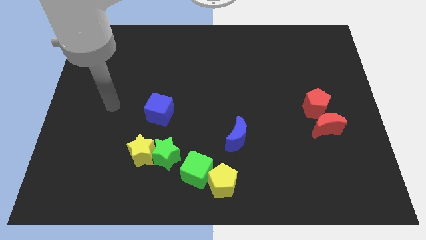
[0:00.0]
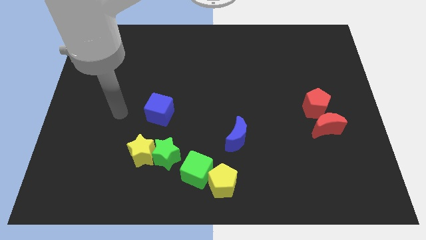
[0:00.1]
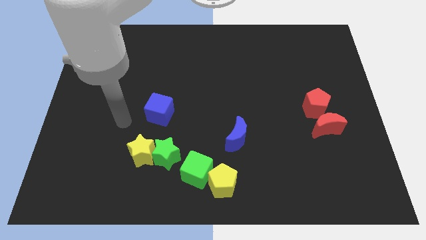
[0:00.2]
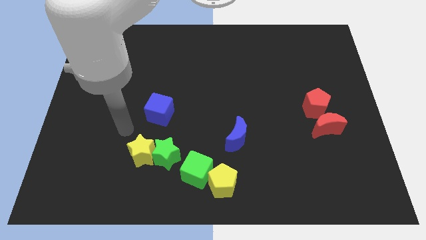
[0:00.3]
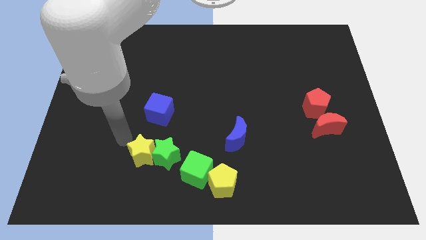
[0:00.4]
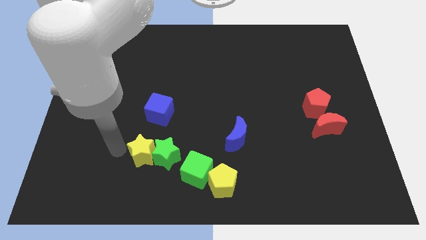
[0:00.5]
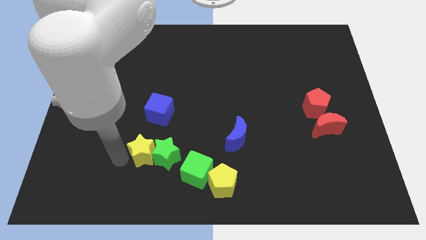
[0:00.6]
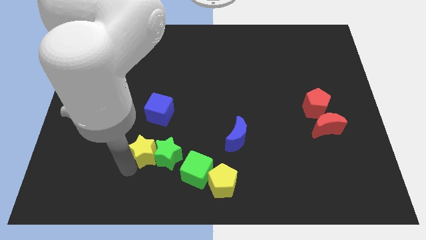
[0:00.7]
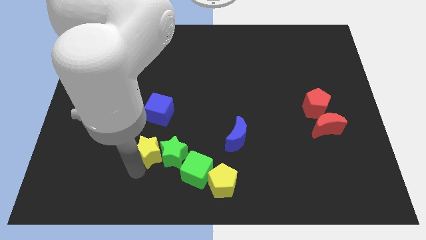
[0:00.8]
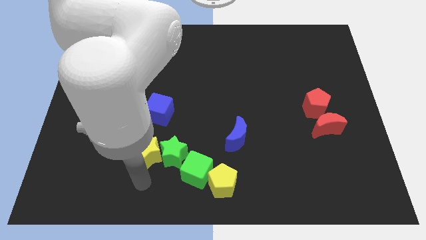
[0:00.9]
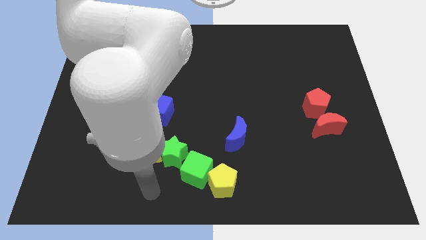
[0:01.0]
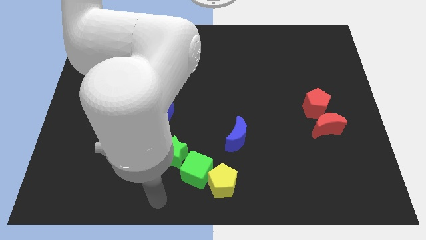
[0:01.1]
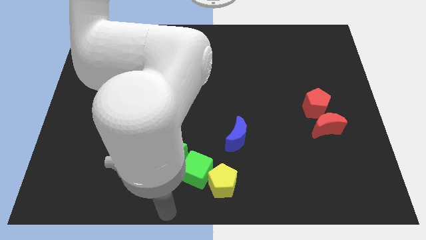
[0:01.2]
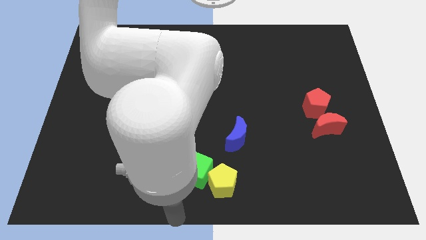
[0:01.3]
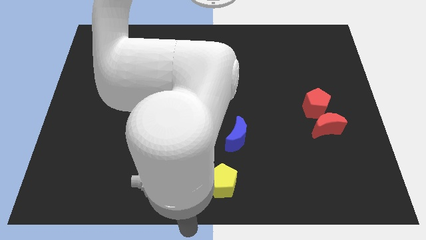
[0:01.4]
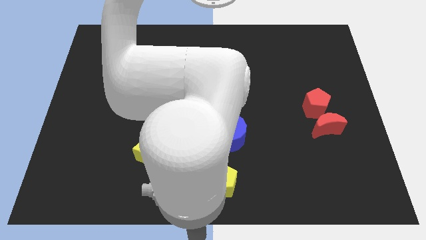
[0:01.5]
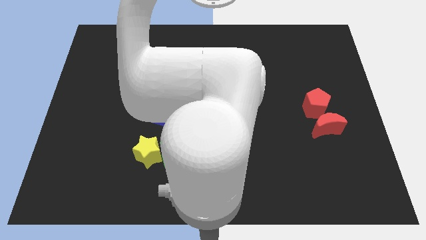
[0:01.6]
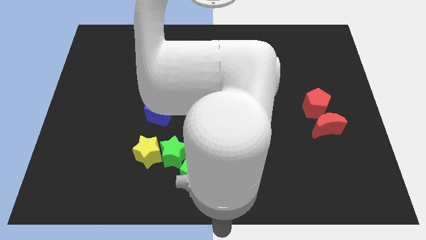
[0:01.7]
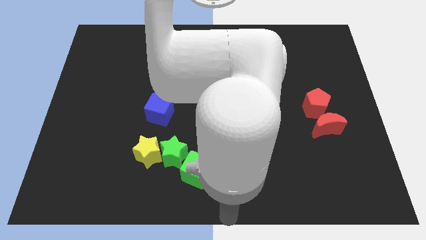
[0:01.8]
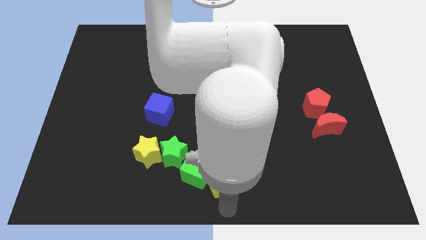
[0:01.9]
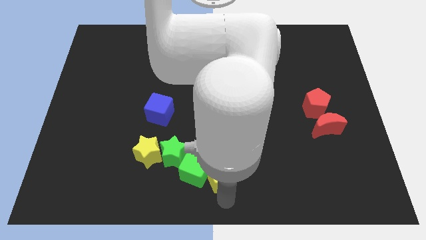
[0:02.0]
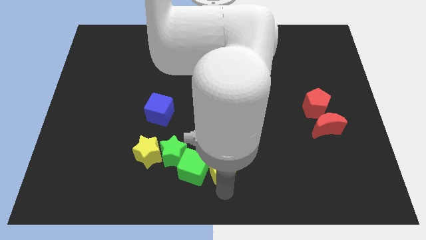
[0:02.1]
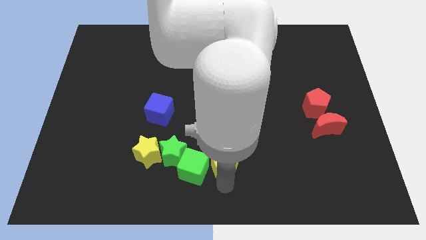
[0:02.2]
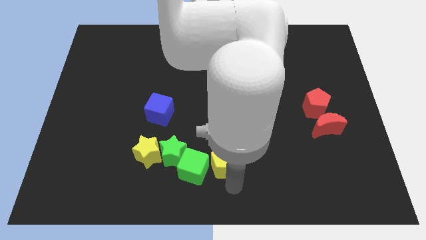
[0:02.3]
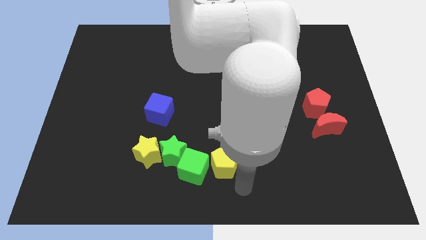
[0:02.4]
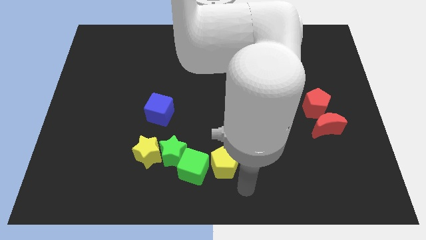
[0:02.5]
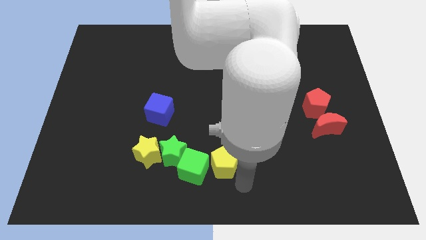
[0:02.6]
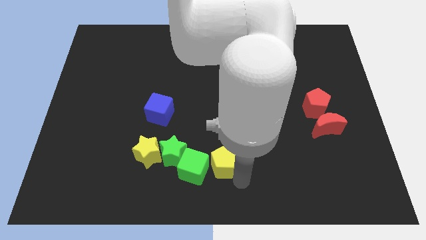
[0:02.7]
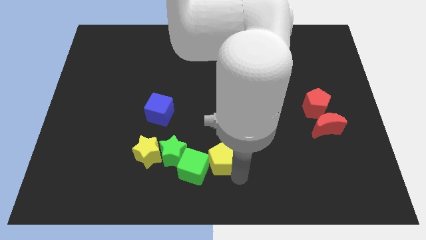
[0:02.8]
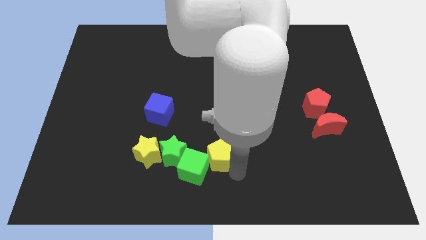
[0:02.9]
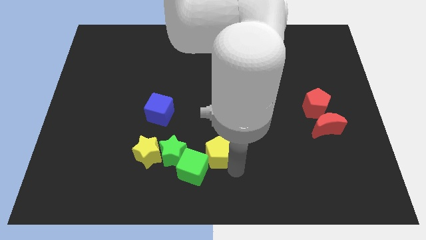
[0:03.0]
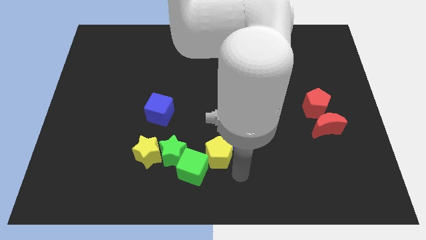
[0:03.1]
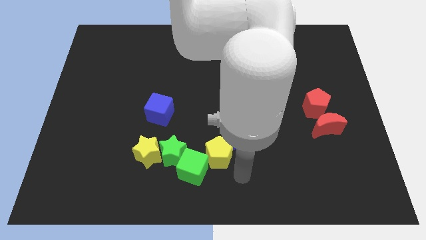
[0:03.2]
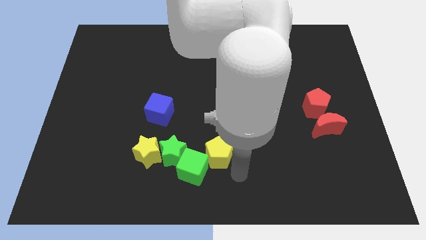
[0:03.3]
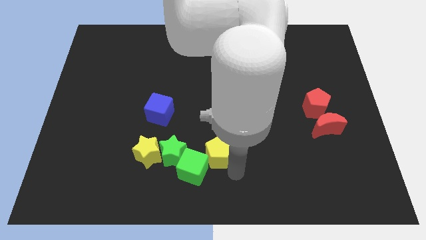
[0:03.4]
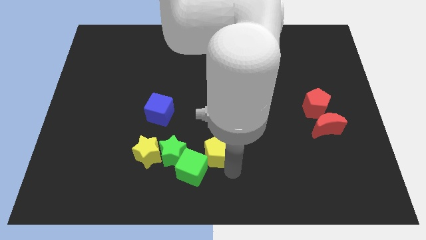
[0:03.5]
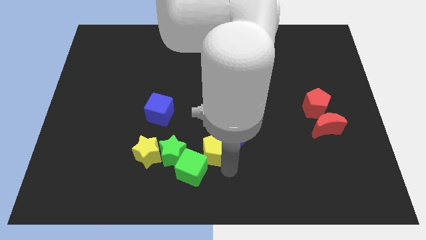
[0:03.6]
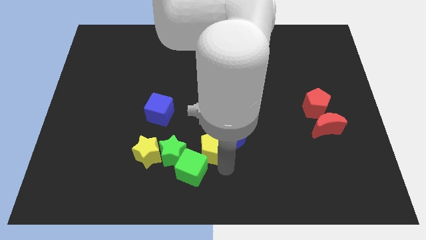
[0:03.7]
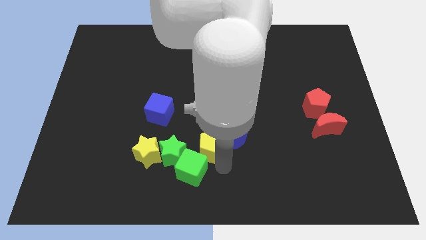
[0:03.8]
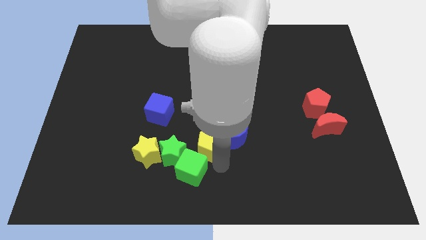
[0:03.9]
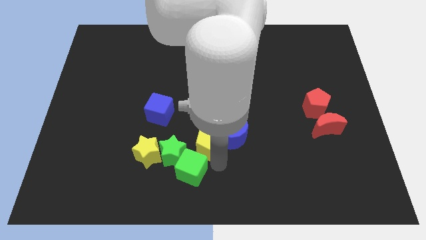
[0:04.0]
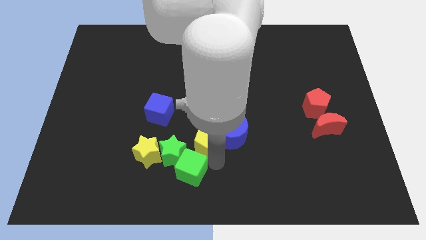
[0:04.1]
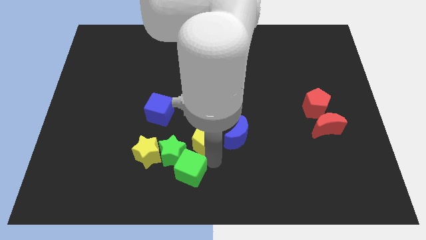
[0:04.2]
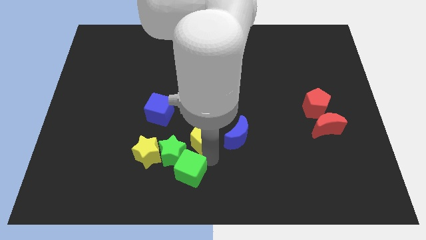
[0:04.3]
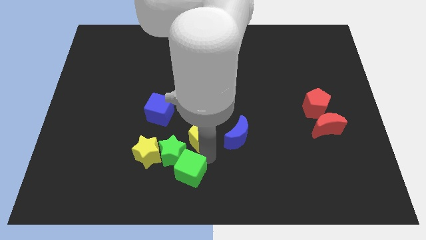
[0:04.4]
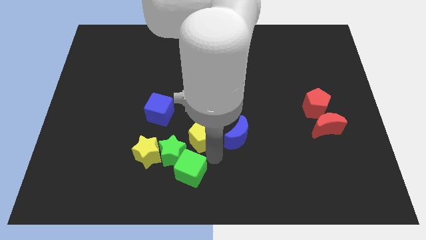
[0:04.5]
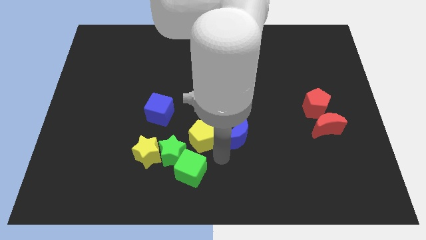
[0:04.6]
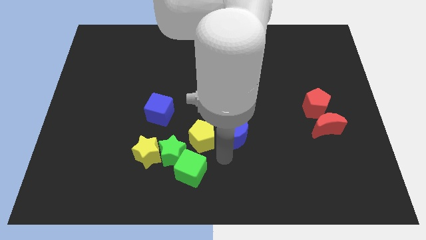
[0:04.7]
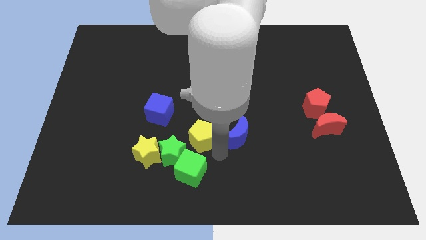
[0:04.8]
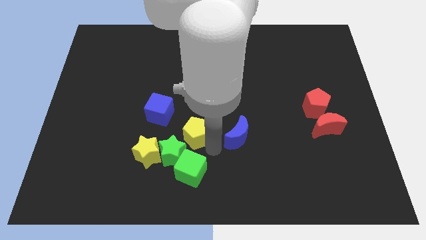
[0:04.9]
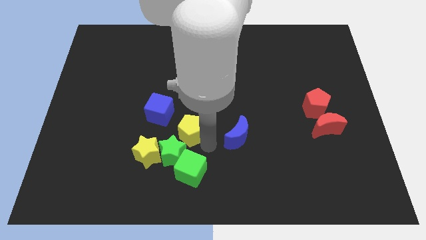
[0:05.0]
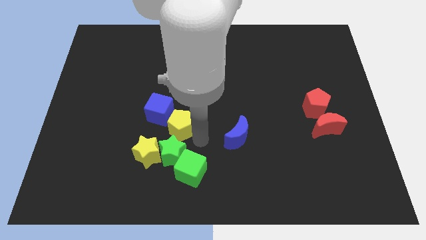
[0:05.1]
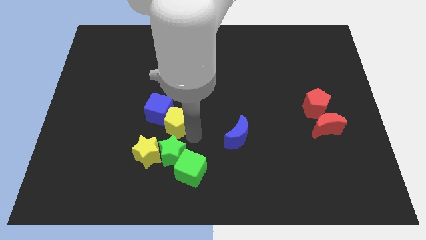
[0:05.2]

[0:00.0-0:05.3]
move the yellow pentagon to the blue cube

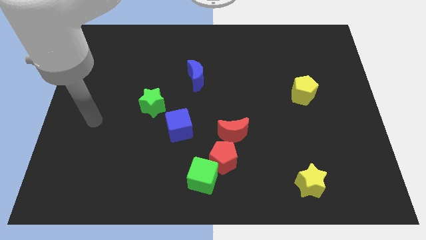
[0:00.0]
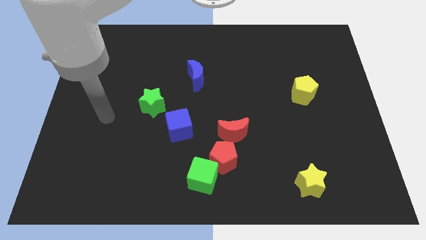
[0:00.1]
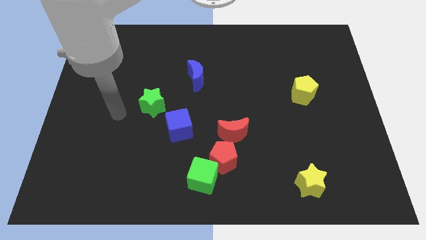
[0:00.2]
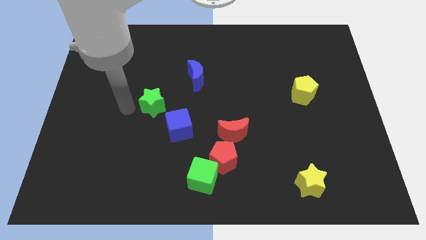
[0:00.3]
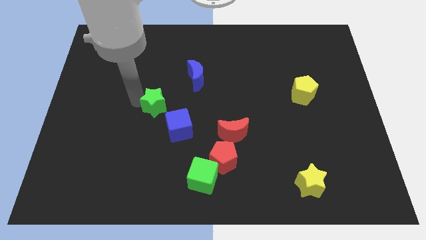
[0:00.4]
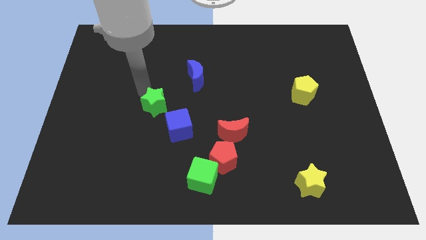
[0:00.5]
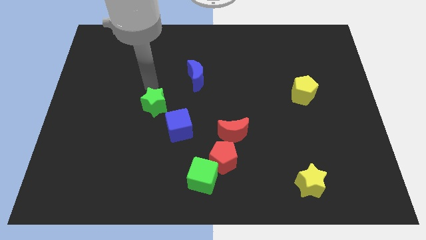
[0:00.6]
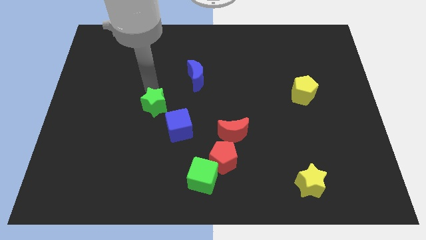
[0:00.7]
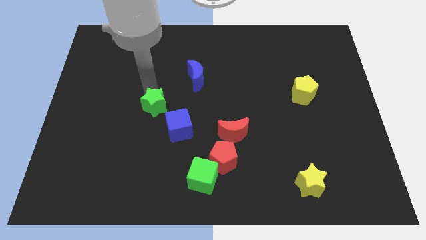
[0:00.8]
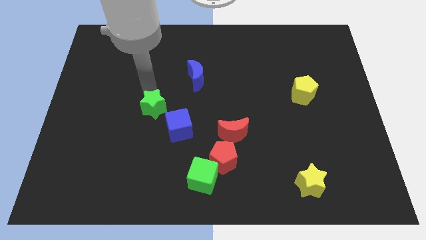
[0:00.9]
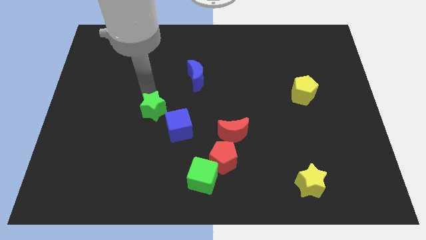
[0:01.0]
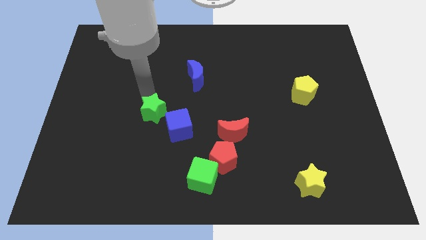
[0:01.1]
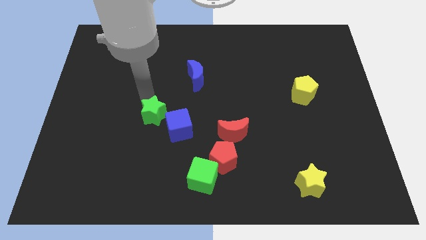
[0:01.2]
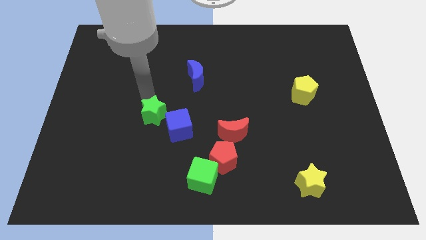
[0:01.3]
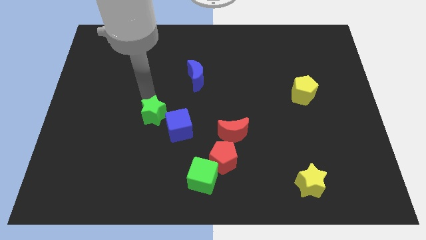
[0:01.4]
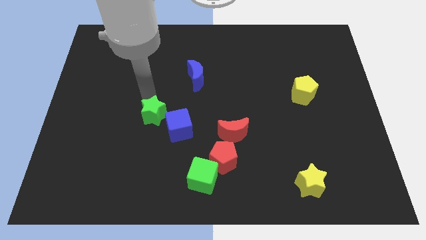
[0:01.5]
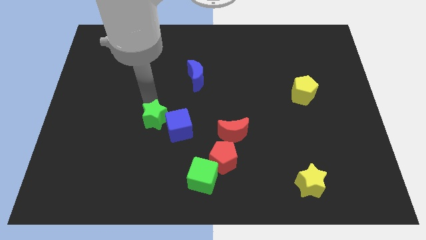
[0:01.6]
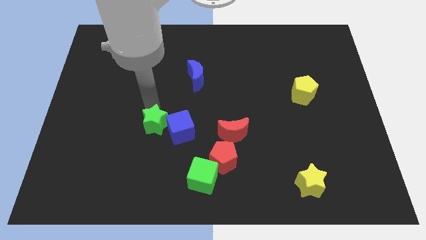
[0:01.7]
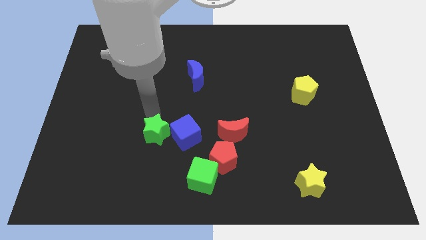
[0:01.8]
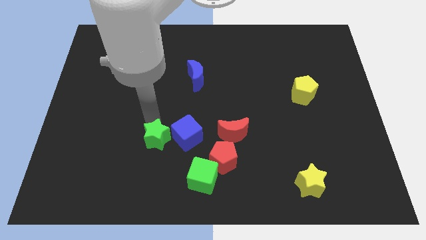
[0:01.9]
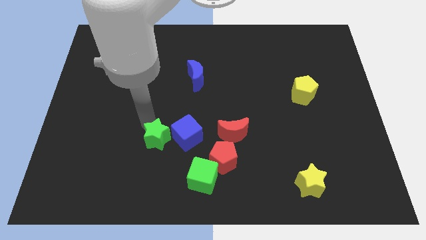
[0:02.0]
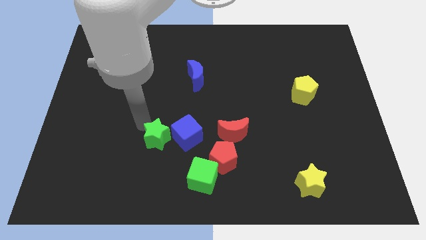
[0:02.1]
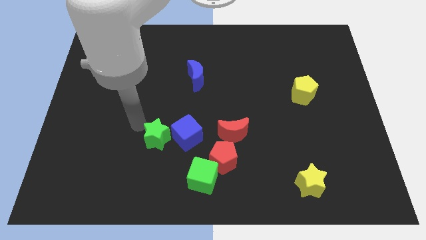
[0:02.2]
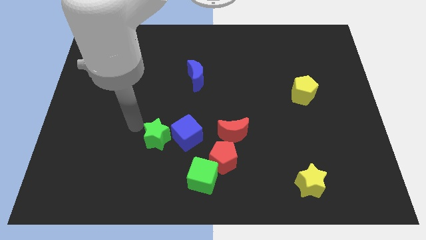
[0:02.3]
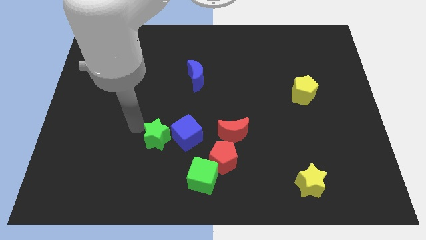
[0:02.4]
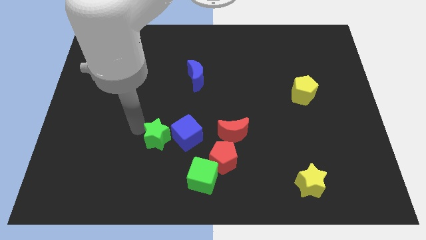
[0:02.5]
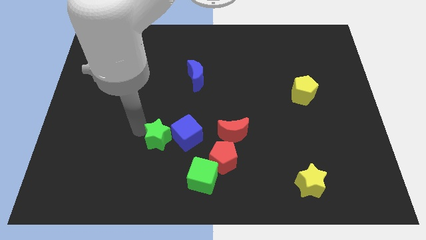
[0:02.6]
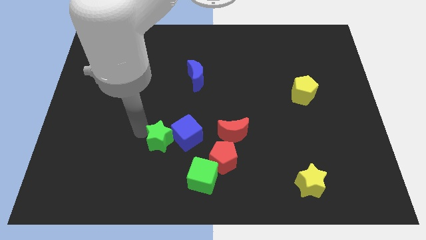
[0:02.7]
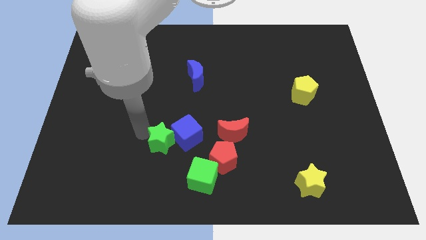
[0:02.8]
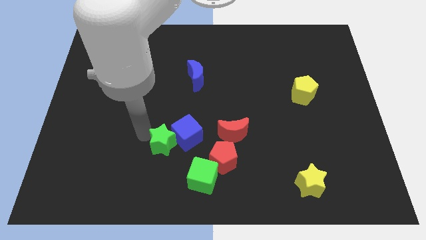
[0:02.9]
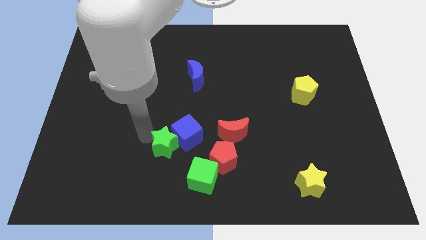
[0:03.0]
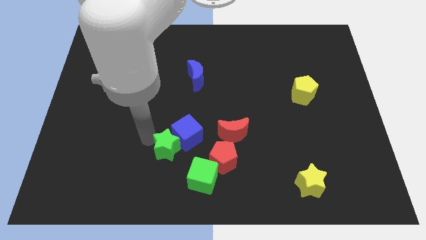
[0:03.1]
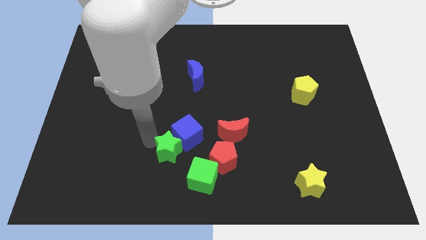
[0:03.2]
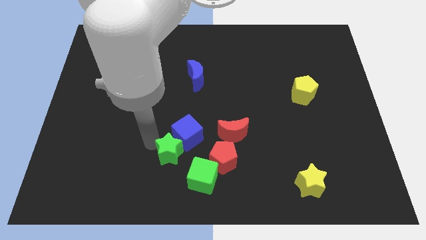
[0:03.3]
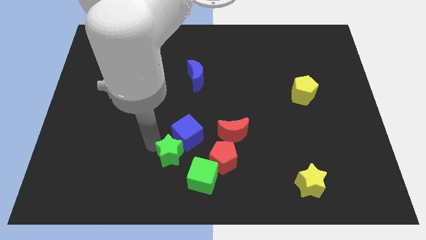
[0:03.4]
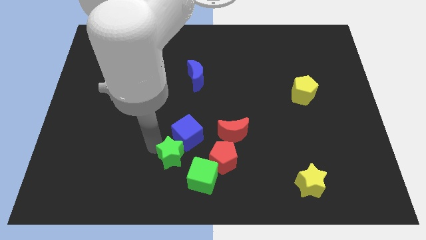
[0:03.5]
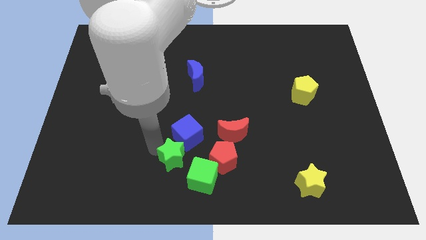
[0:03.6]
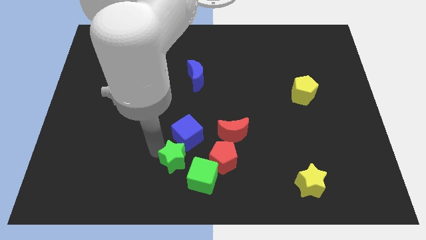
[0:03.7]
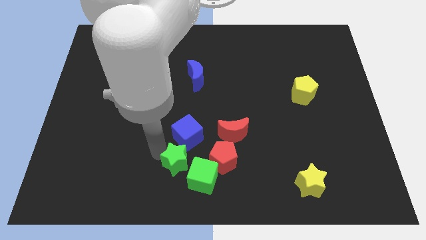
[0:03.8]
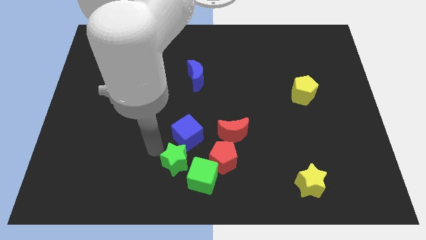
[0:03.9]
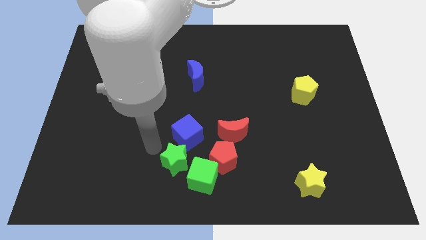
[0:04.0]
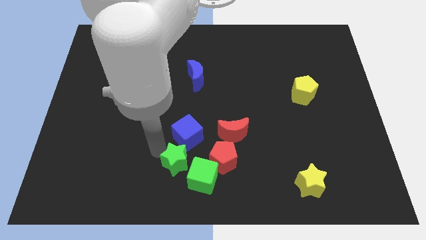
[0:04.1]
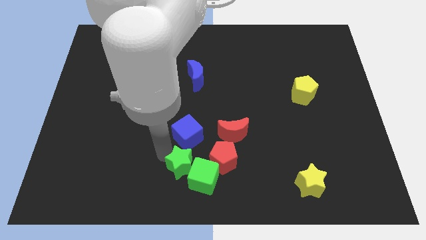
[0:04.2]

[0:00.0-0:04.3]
slide the green star to the green cube
